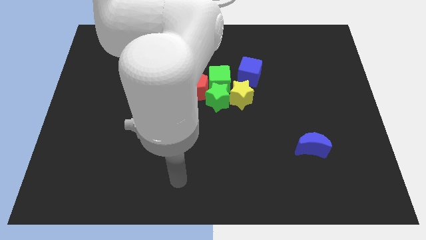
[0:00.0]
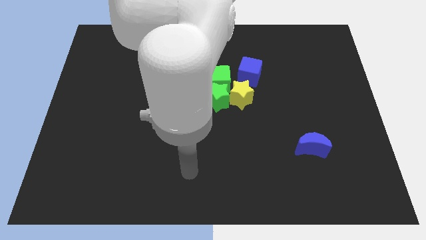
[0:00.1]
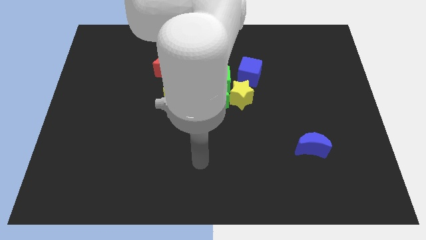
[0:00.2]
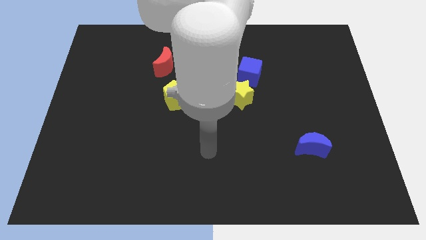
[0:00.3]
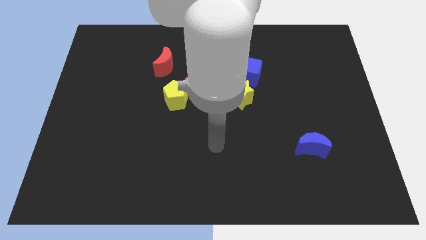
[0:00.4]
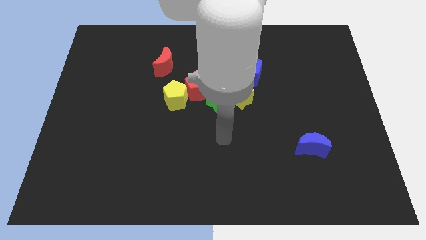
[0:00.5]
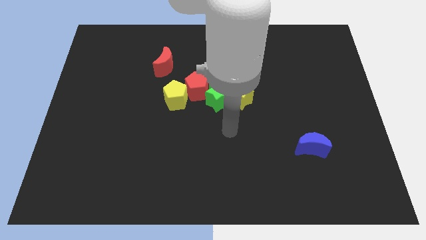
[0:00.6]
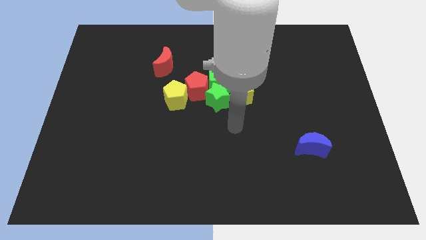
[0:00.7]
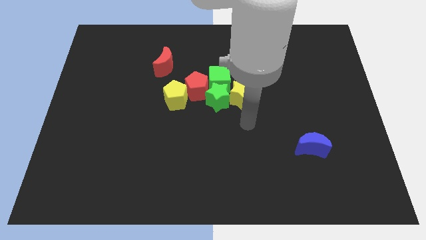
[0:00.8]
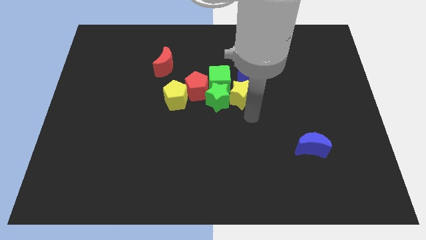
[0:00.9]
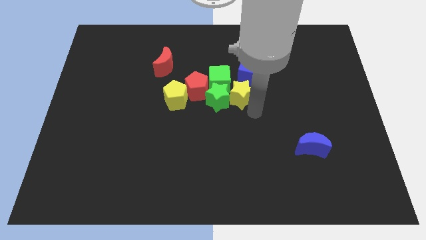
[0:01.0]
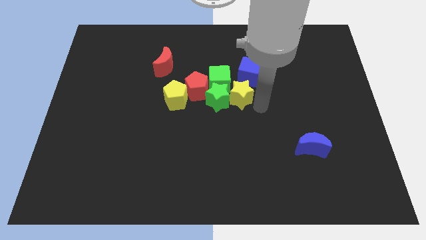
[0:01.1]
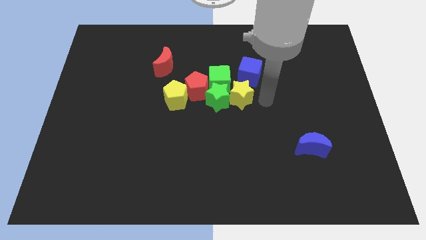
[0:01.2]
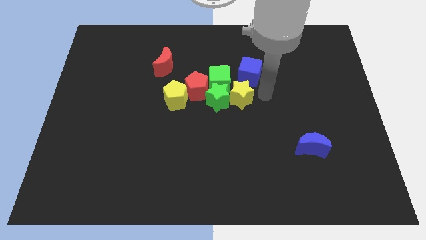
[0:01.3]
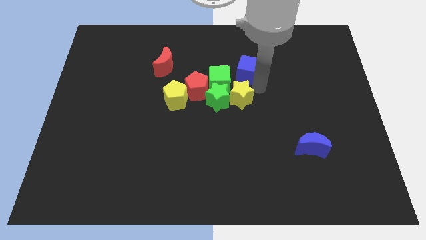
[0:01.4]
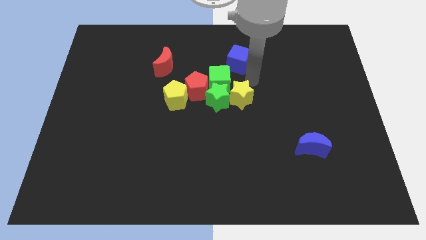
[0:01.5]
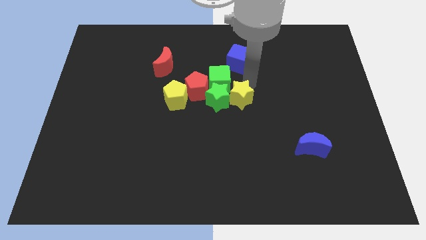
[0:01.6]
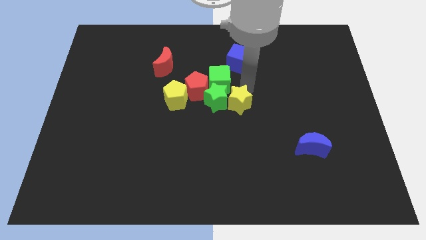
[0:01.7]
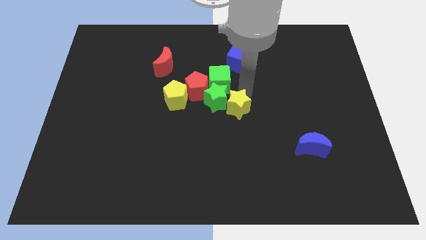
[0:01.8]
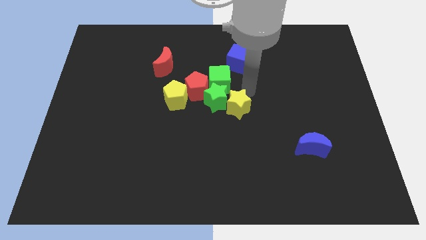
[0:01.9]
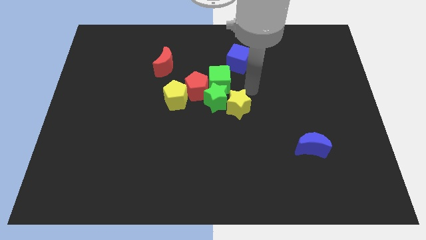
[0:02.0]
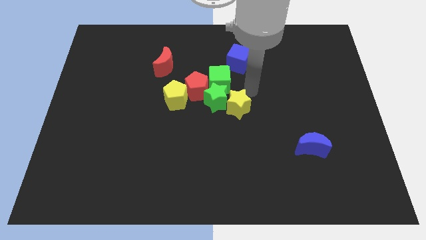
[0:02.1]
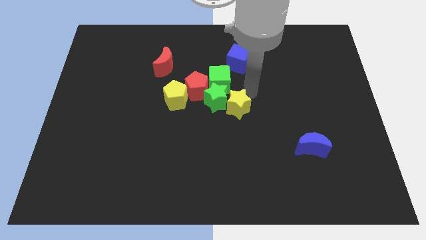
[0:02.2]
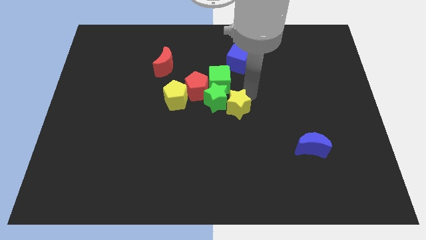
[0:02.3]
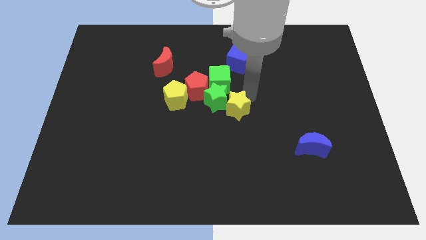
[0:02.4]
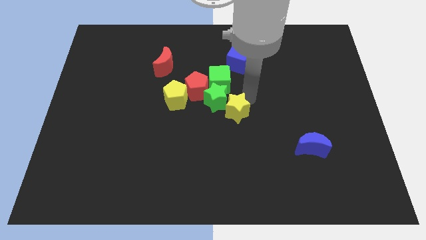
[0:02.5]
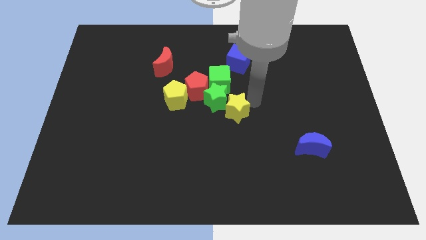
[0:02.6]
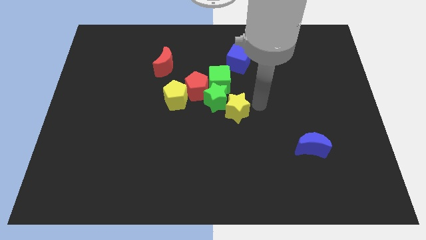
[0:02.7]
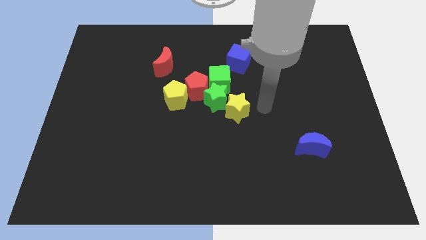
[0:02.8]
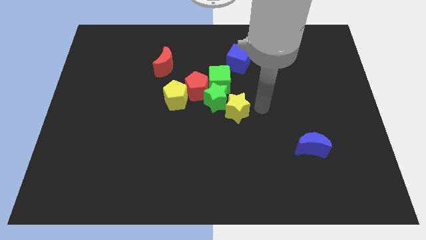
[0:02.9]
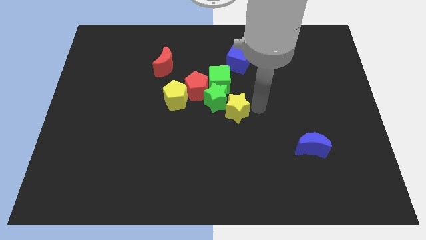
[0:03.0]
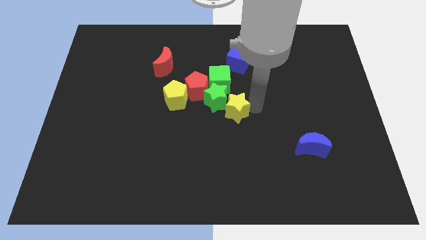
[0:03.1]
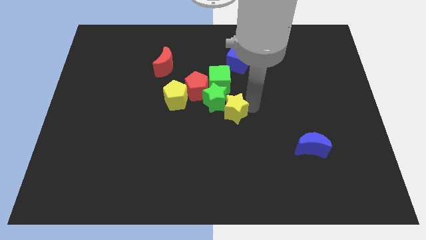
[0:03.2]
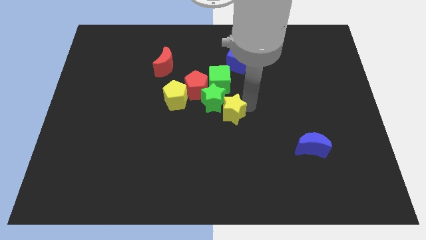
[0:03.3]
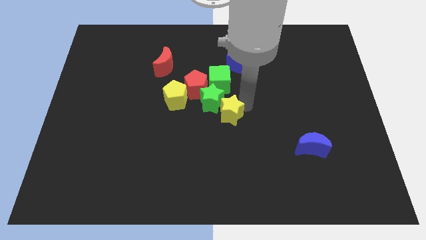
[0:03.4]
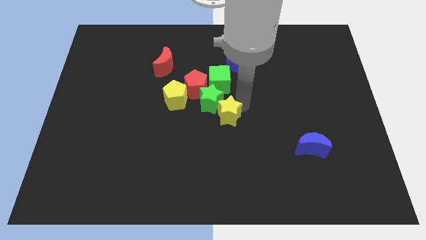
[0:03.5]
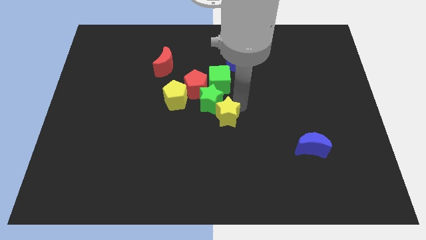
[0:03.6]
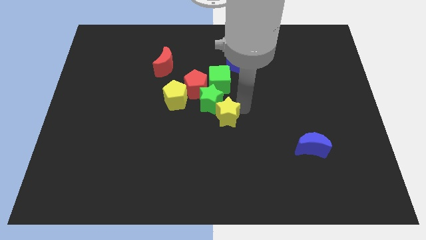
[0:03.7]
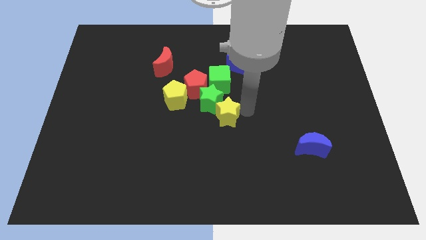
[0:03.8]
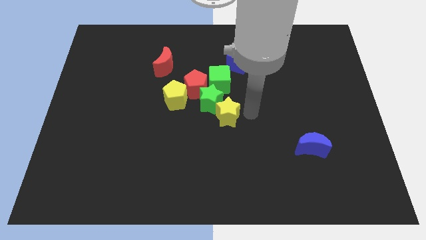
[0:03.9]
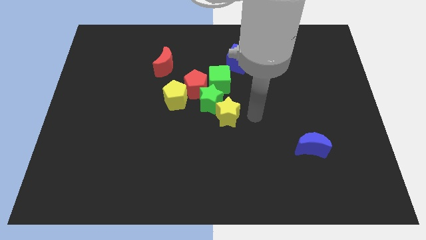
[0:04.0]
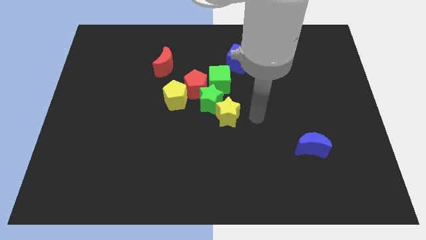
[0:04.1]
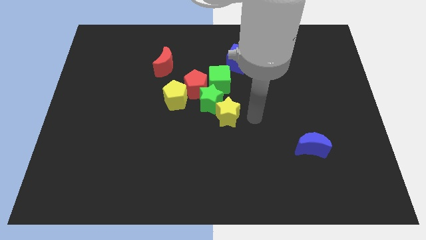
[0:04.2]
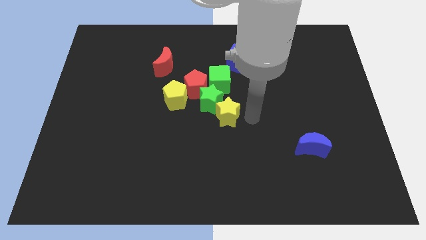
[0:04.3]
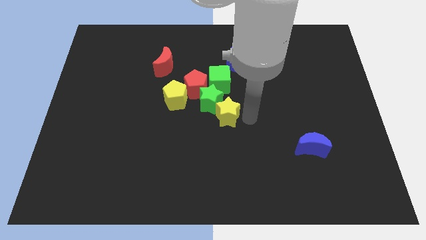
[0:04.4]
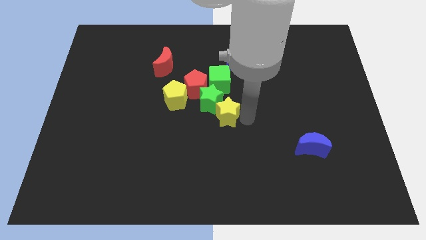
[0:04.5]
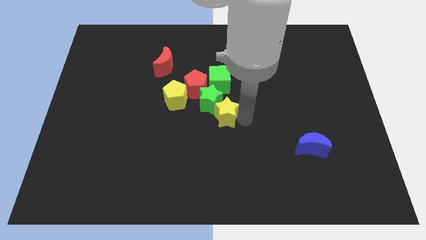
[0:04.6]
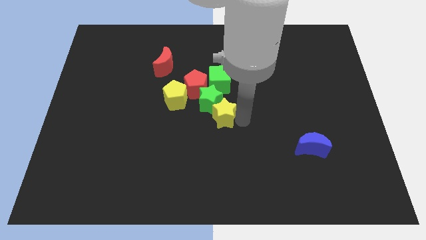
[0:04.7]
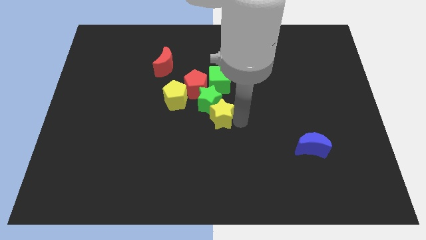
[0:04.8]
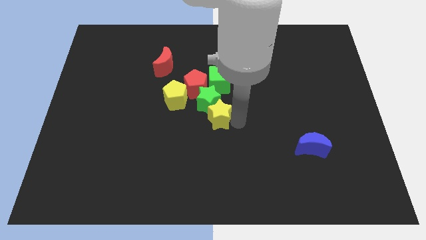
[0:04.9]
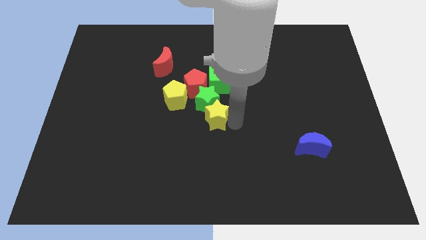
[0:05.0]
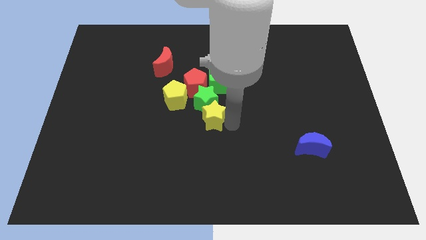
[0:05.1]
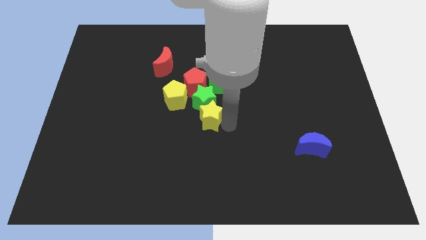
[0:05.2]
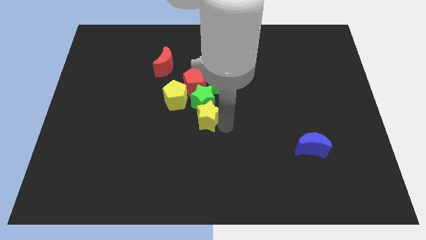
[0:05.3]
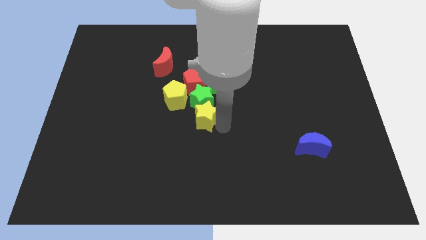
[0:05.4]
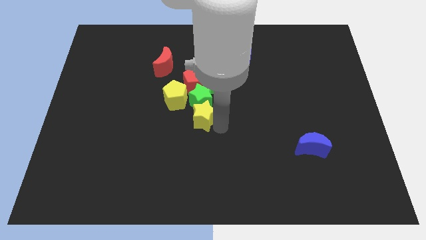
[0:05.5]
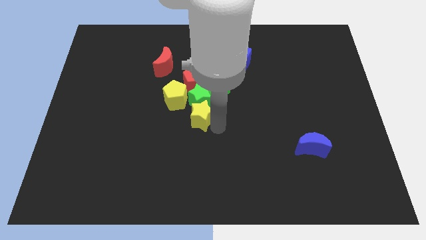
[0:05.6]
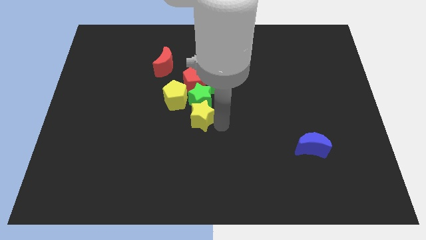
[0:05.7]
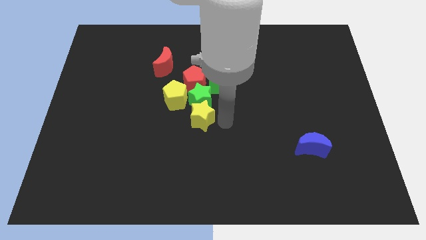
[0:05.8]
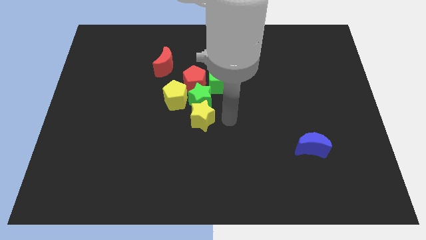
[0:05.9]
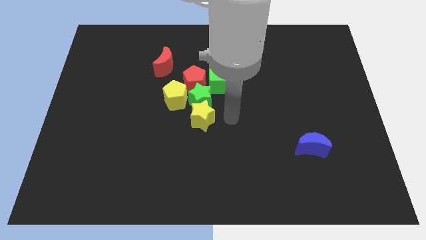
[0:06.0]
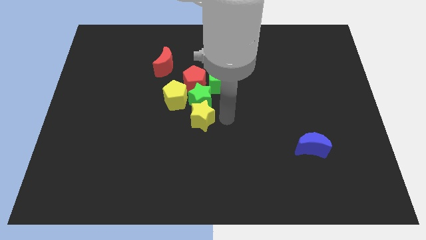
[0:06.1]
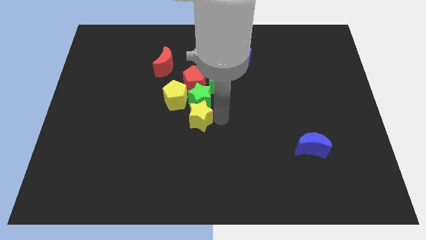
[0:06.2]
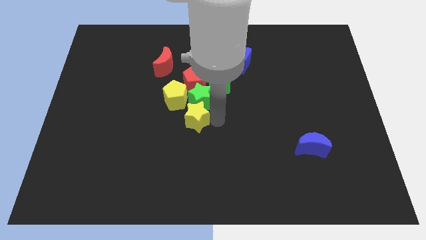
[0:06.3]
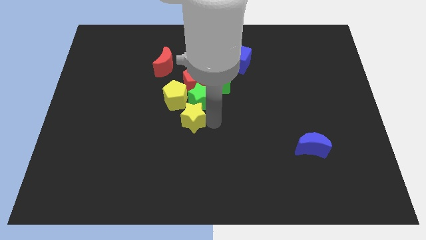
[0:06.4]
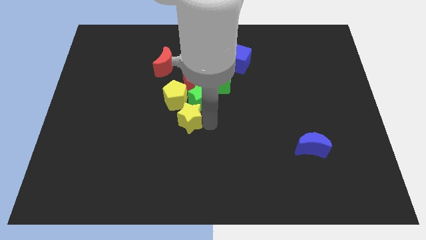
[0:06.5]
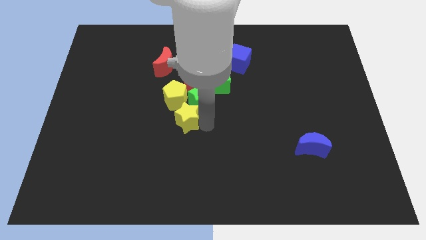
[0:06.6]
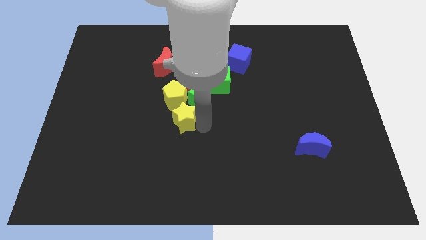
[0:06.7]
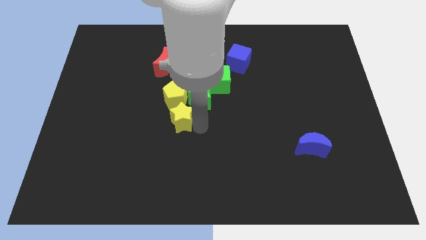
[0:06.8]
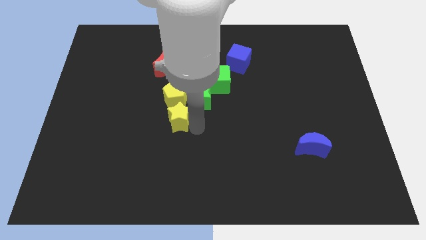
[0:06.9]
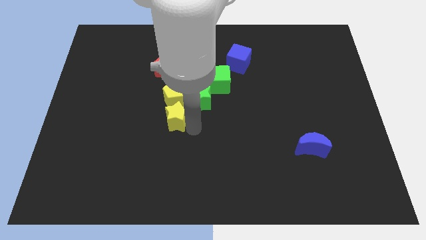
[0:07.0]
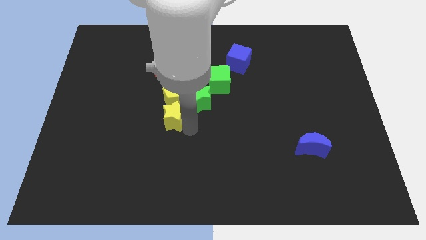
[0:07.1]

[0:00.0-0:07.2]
move the yellow star towards the yellow pentagon
